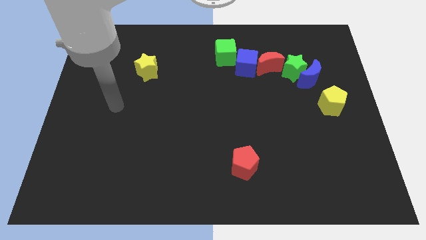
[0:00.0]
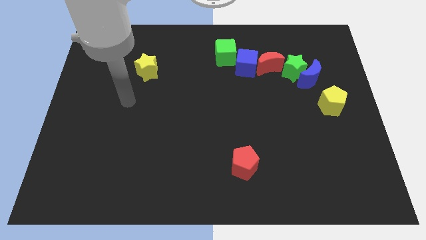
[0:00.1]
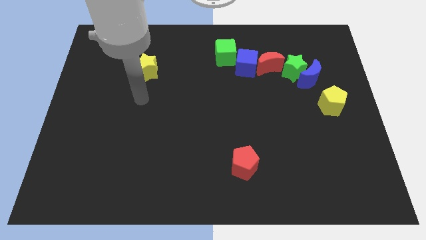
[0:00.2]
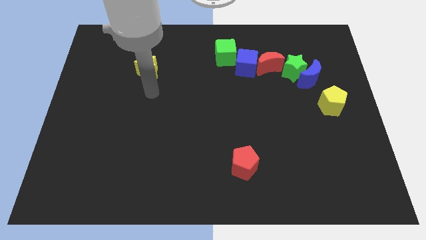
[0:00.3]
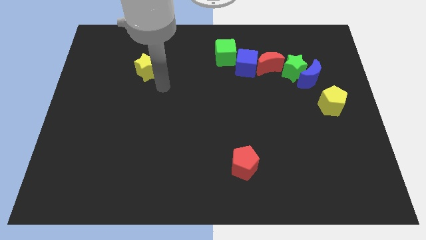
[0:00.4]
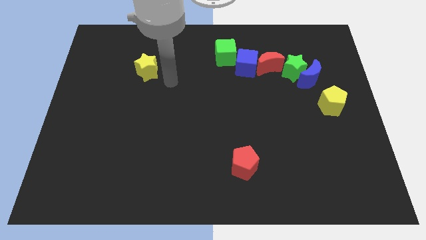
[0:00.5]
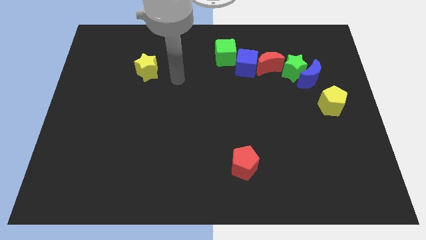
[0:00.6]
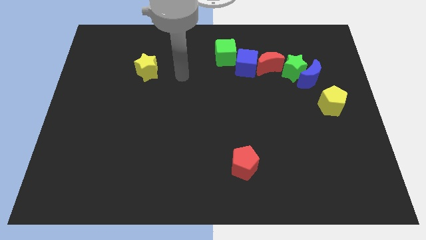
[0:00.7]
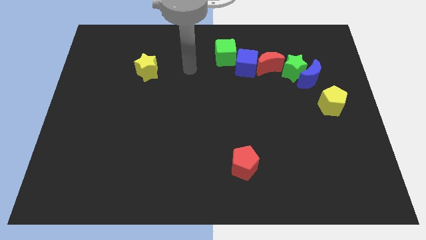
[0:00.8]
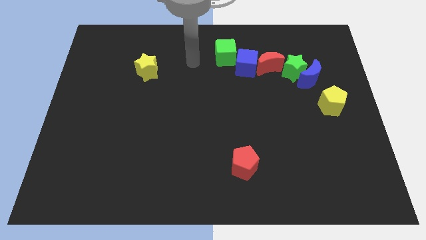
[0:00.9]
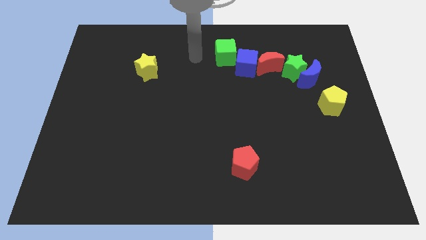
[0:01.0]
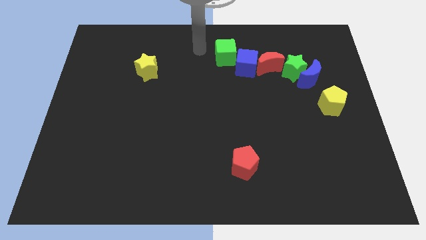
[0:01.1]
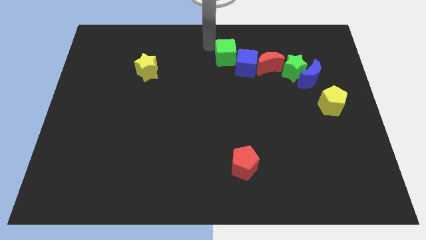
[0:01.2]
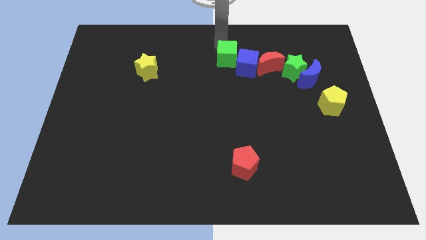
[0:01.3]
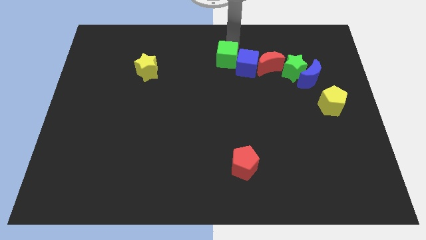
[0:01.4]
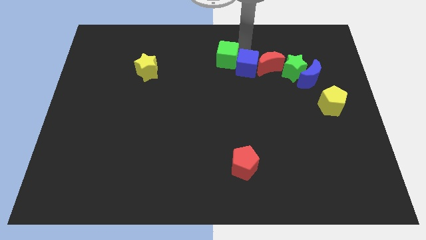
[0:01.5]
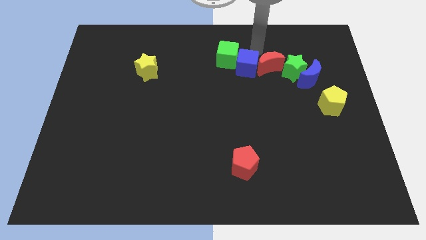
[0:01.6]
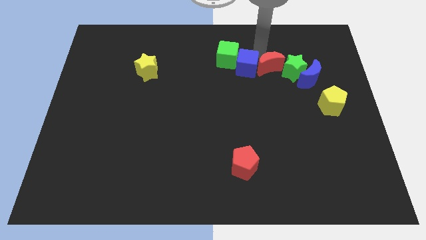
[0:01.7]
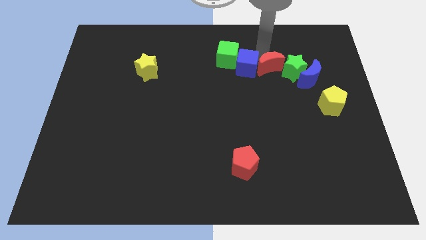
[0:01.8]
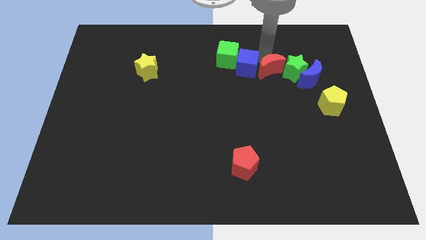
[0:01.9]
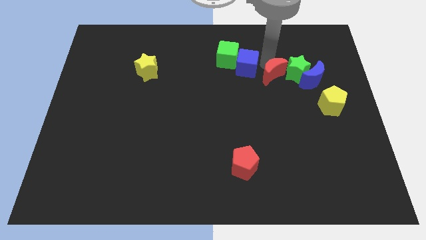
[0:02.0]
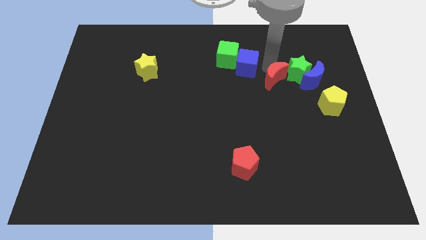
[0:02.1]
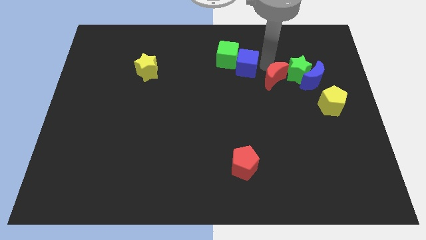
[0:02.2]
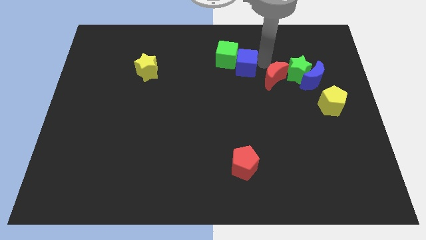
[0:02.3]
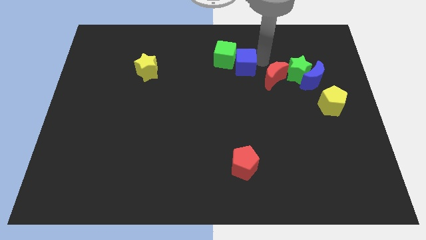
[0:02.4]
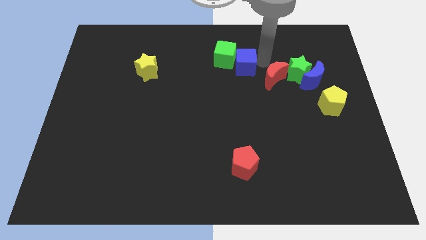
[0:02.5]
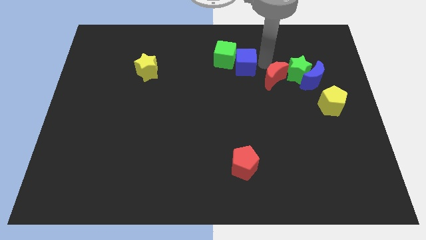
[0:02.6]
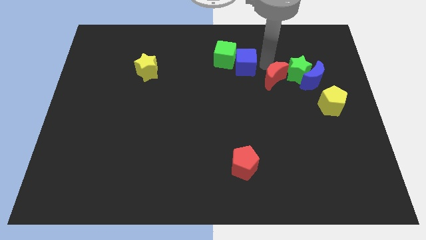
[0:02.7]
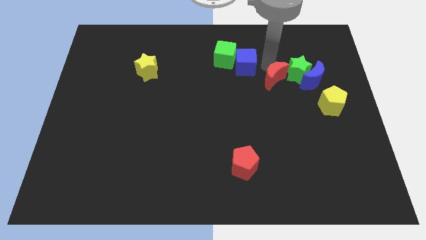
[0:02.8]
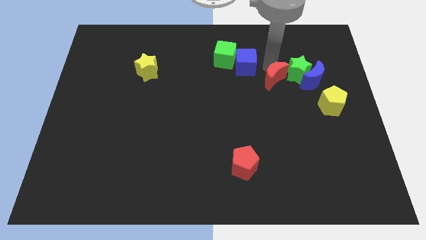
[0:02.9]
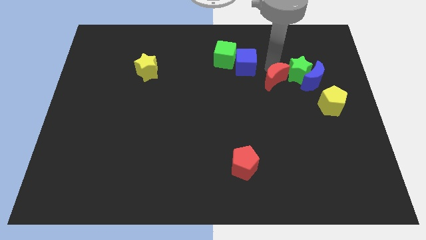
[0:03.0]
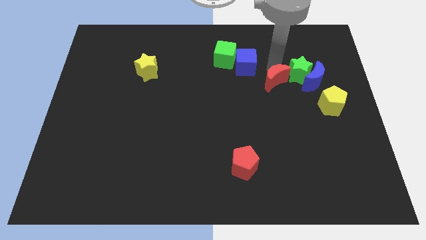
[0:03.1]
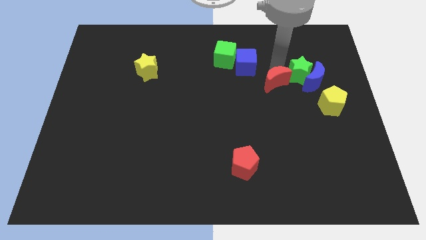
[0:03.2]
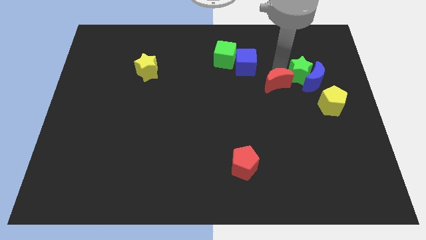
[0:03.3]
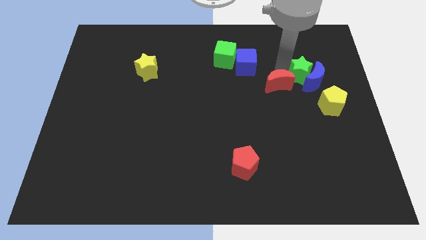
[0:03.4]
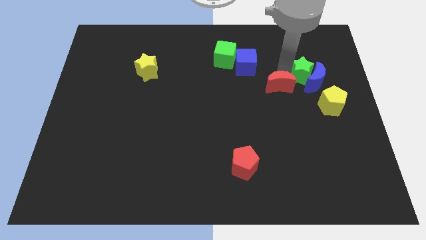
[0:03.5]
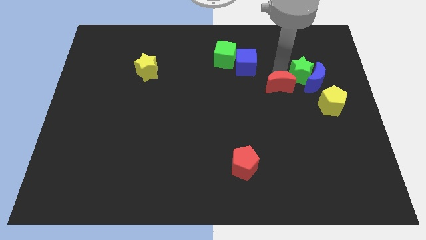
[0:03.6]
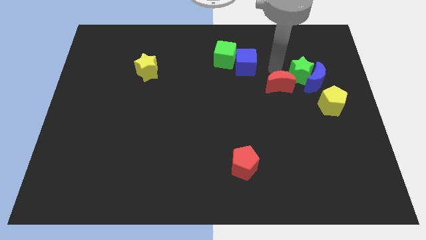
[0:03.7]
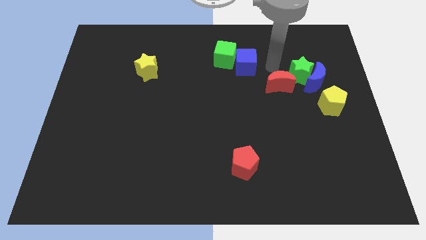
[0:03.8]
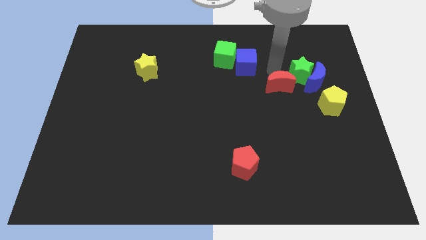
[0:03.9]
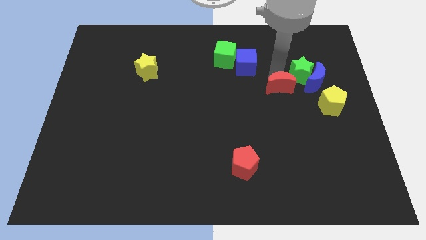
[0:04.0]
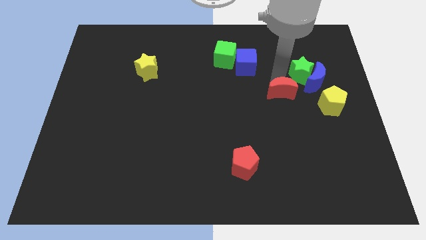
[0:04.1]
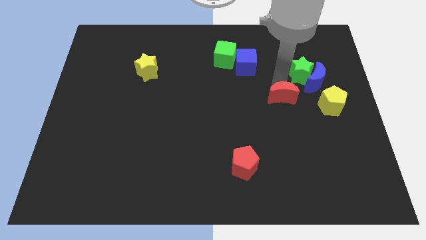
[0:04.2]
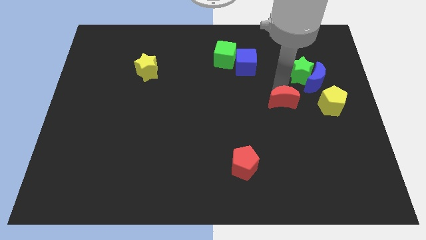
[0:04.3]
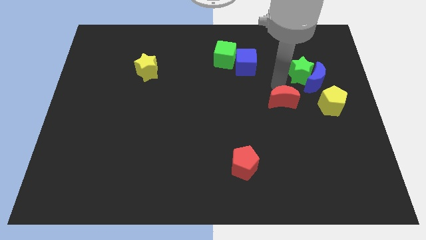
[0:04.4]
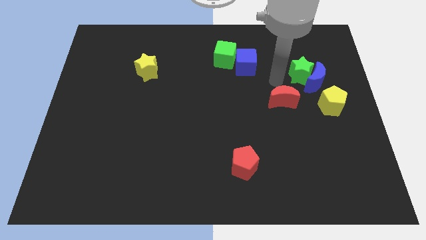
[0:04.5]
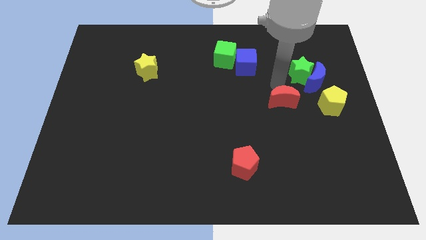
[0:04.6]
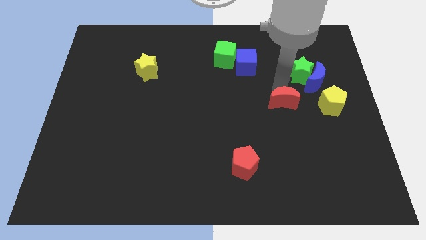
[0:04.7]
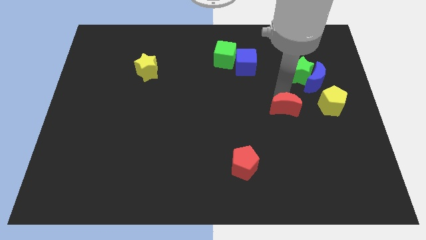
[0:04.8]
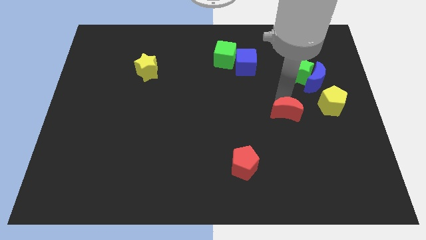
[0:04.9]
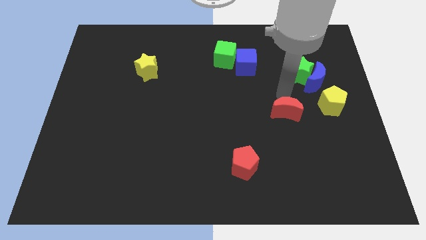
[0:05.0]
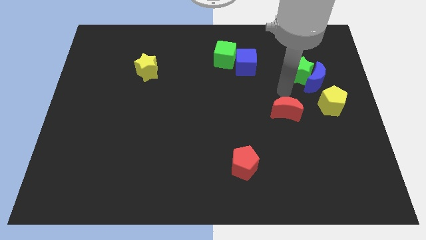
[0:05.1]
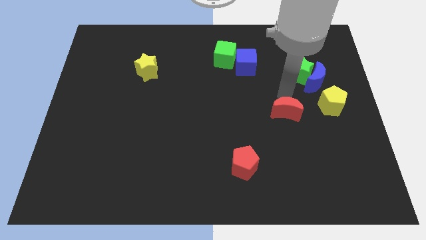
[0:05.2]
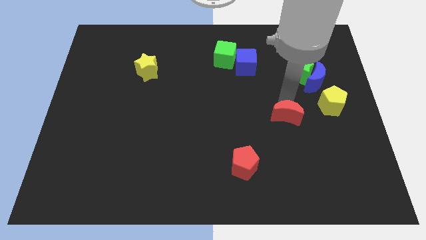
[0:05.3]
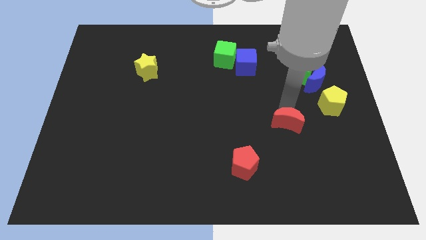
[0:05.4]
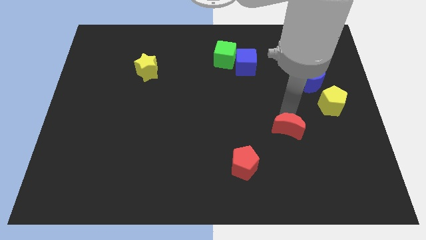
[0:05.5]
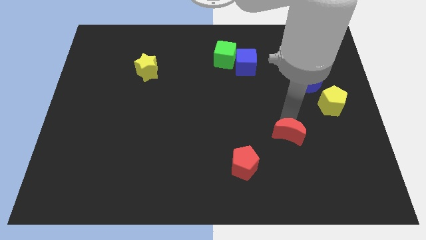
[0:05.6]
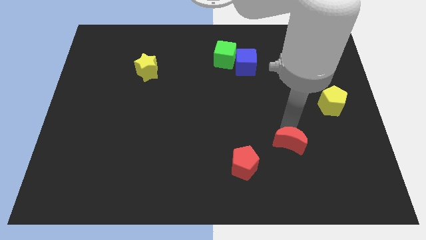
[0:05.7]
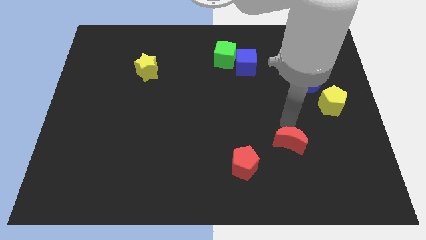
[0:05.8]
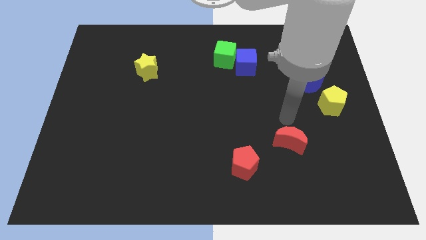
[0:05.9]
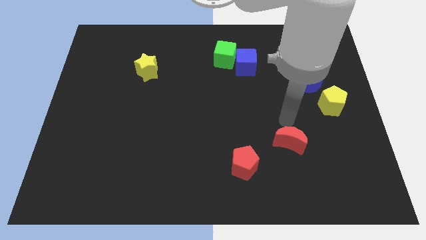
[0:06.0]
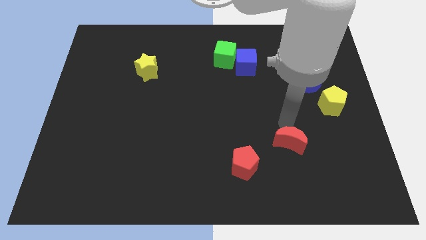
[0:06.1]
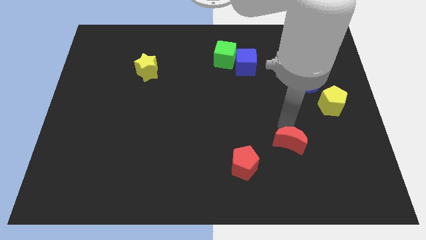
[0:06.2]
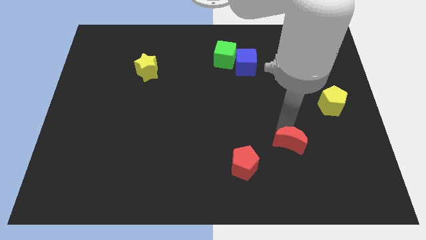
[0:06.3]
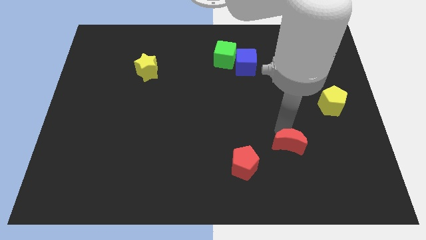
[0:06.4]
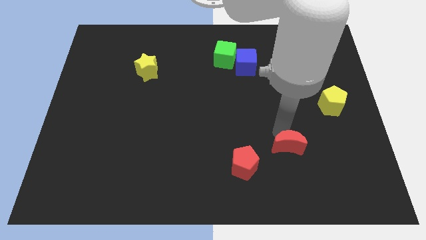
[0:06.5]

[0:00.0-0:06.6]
slide the red moon just right of the red pentagon
